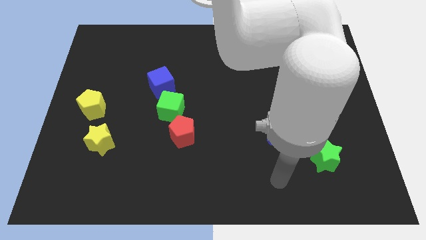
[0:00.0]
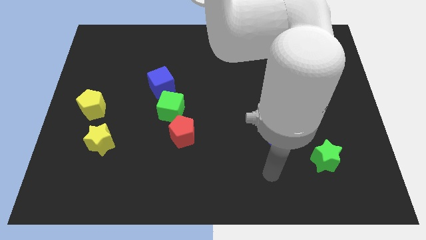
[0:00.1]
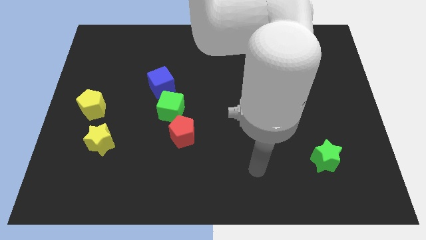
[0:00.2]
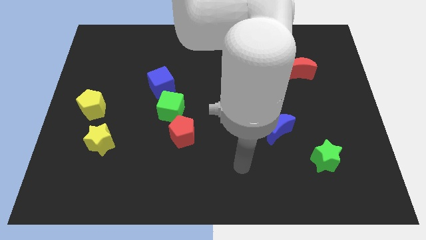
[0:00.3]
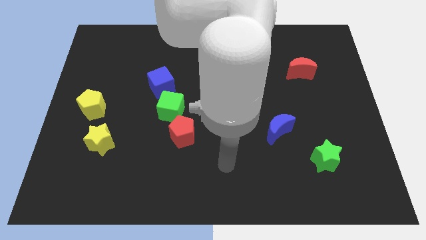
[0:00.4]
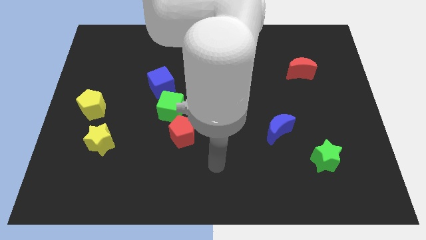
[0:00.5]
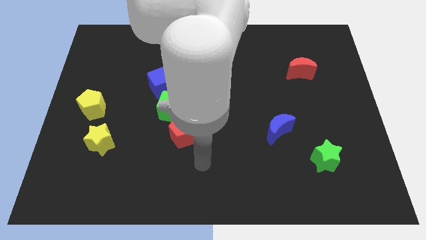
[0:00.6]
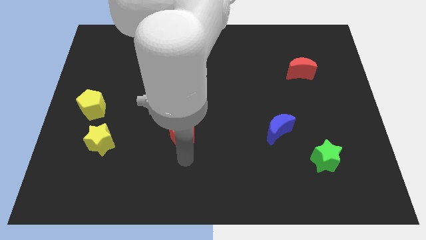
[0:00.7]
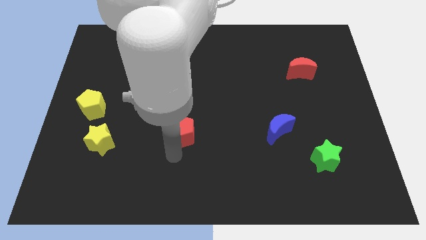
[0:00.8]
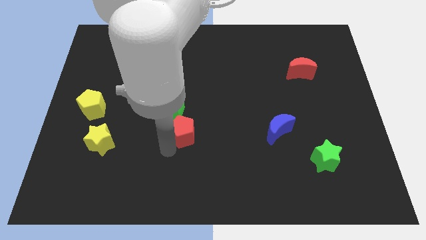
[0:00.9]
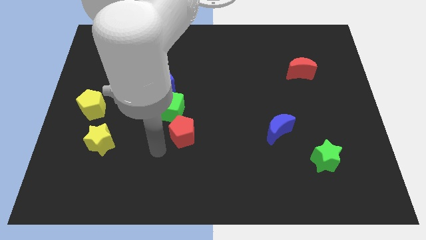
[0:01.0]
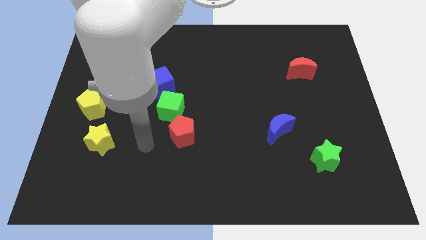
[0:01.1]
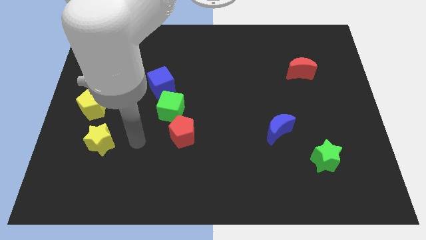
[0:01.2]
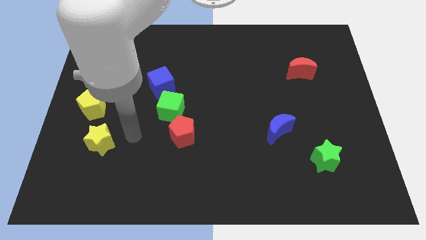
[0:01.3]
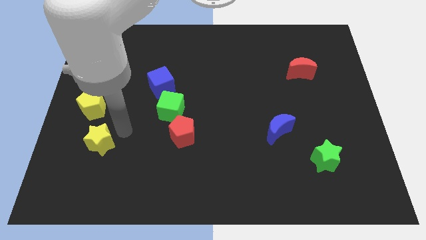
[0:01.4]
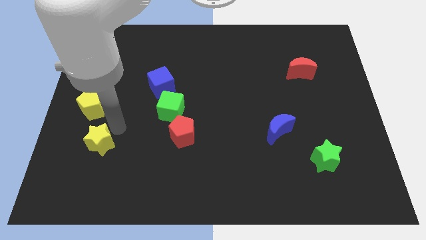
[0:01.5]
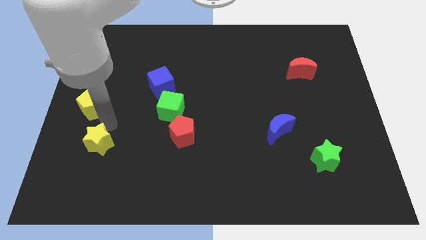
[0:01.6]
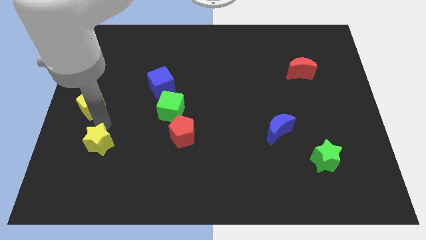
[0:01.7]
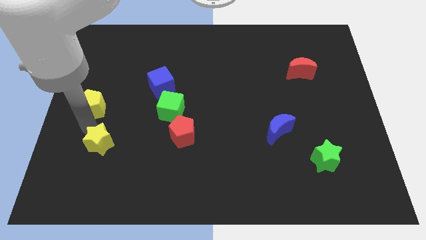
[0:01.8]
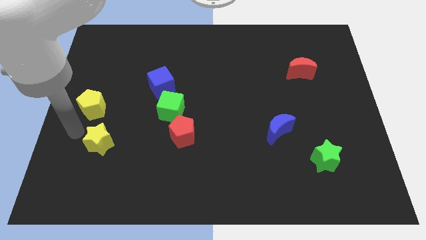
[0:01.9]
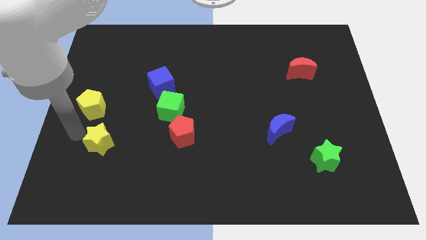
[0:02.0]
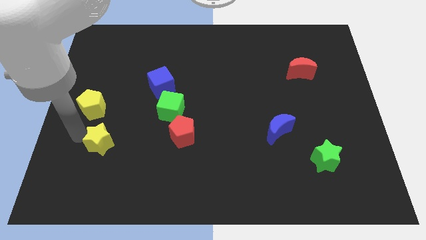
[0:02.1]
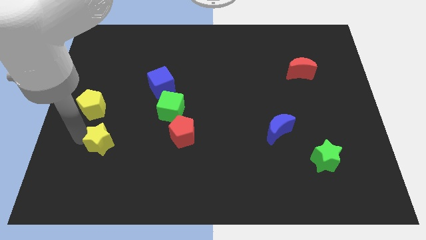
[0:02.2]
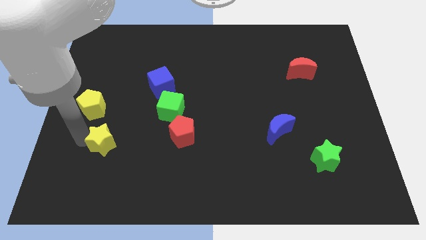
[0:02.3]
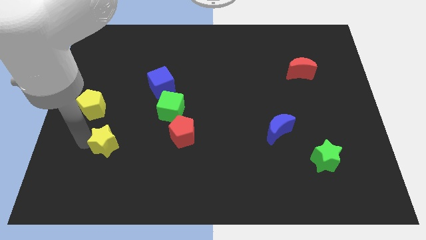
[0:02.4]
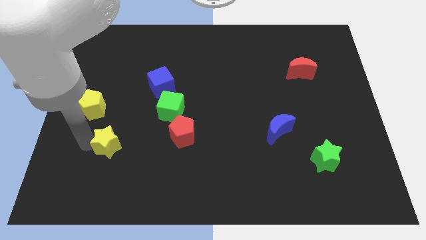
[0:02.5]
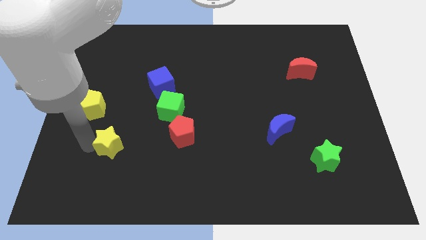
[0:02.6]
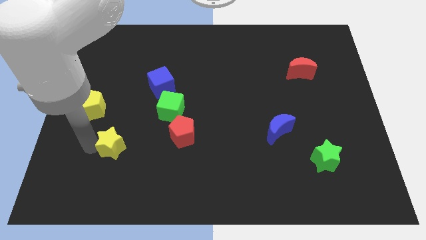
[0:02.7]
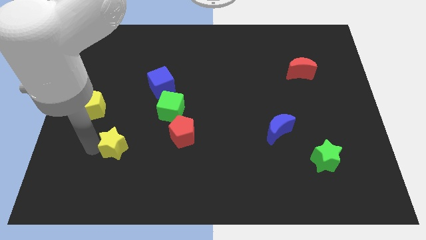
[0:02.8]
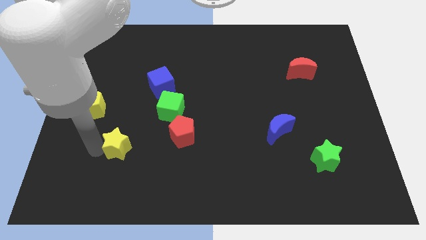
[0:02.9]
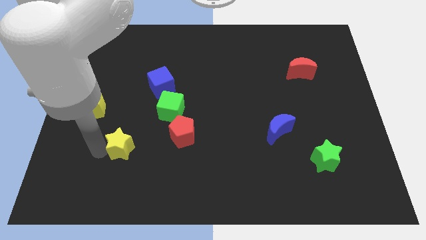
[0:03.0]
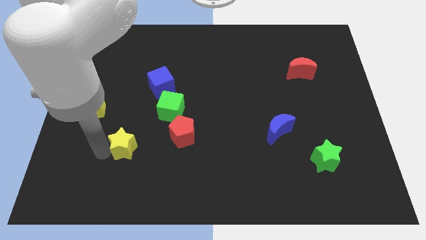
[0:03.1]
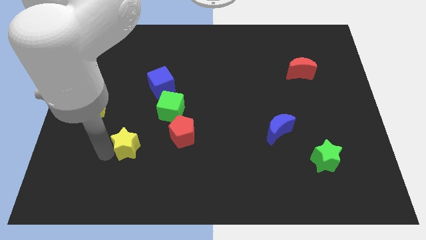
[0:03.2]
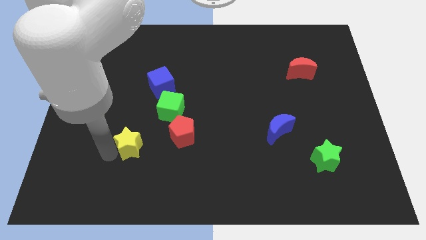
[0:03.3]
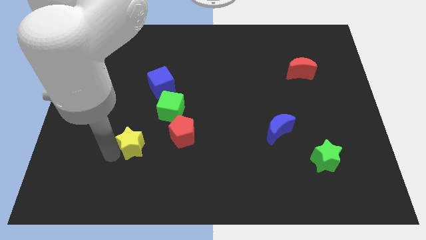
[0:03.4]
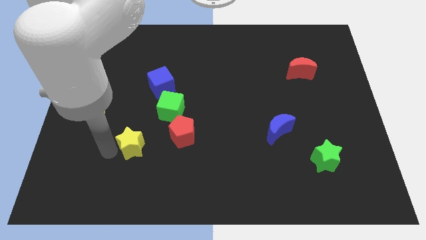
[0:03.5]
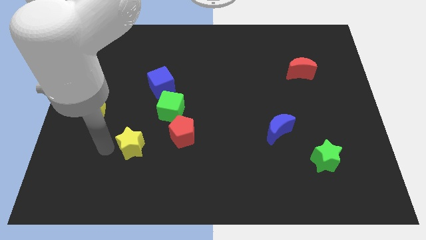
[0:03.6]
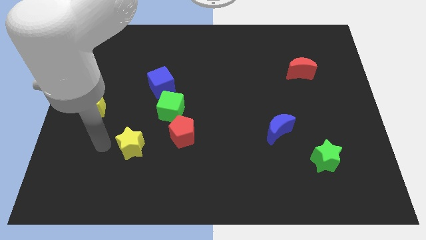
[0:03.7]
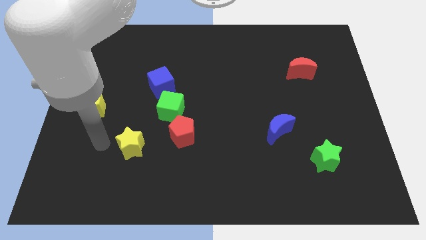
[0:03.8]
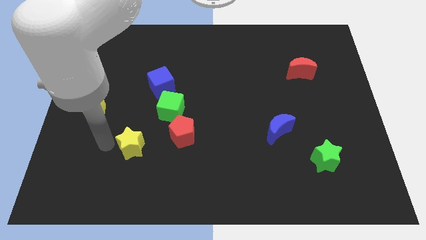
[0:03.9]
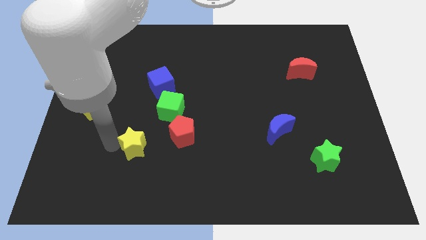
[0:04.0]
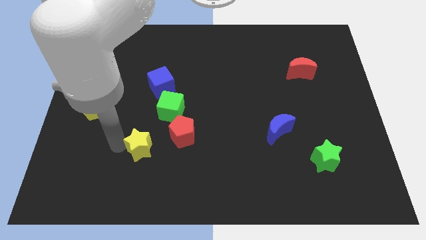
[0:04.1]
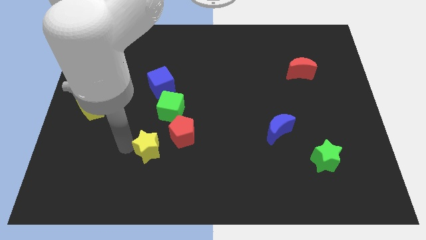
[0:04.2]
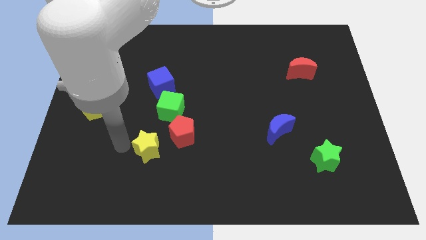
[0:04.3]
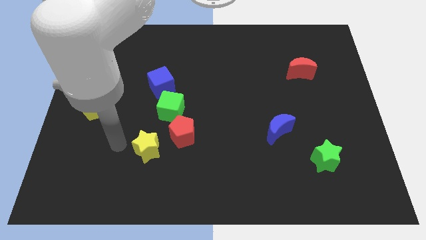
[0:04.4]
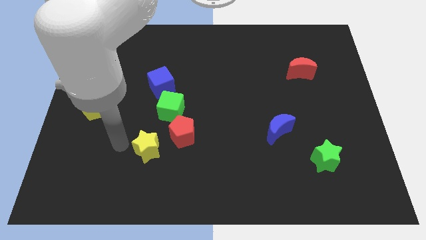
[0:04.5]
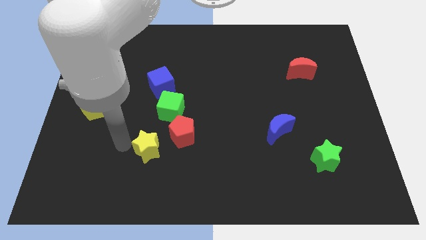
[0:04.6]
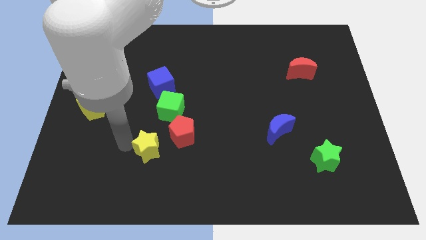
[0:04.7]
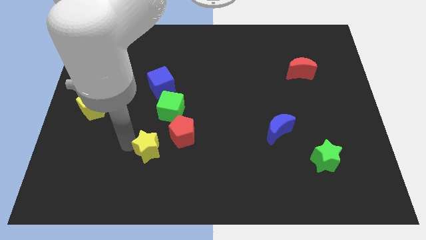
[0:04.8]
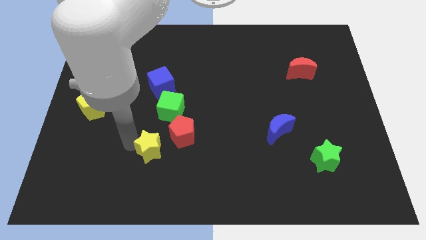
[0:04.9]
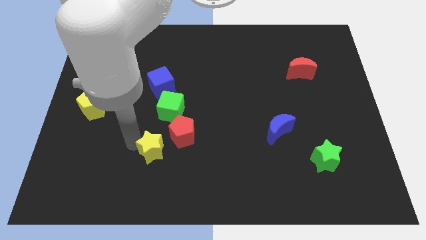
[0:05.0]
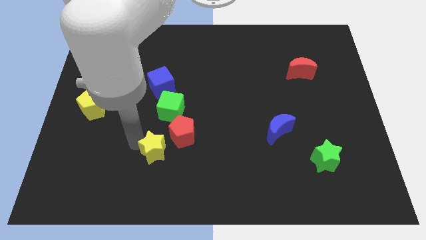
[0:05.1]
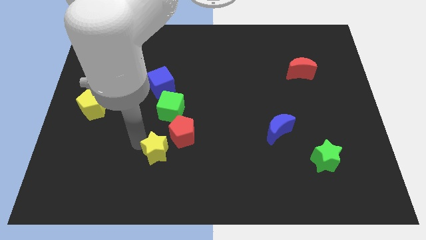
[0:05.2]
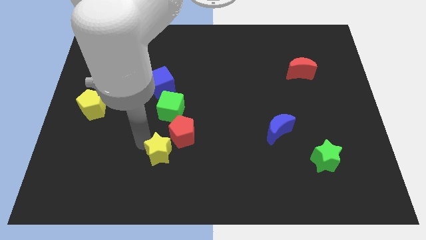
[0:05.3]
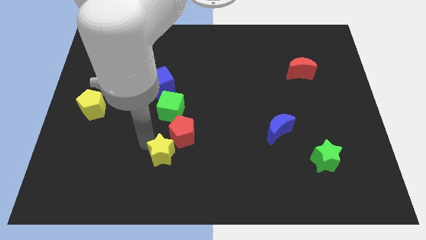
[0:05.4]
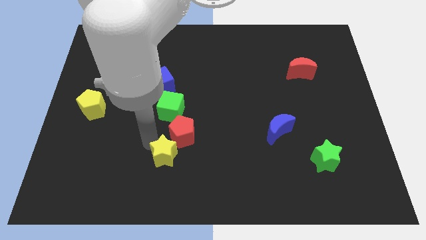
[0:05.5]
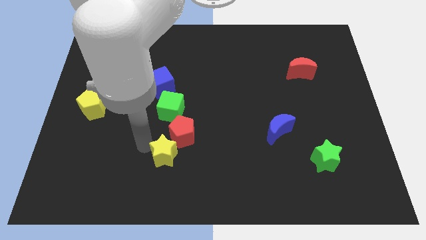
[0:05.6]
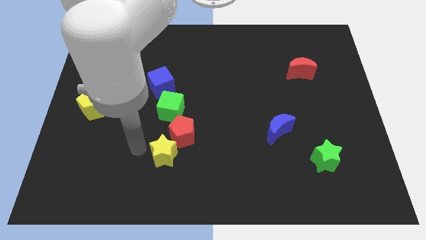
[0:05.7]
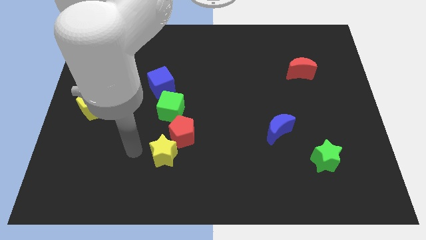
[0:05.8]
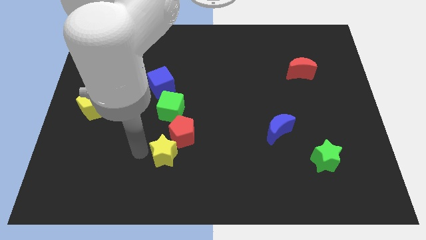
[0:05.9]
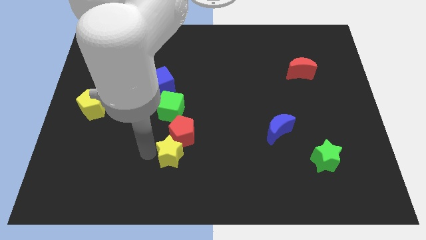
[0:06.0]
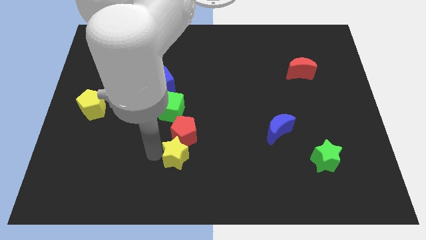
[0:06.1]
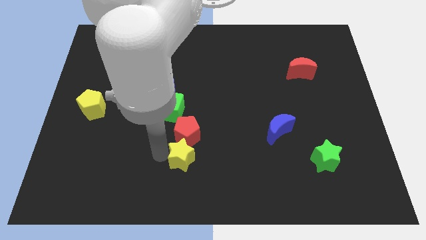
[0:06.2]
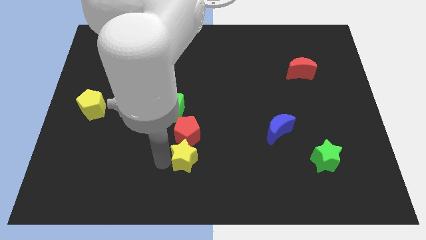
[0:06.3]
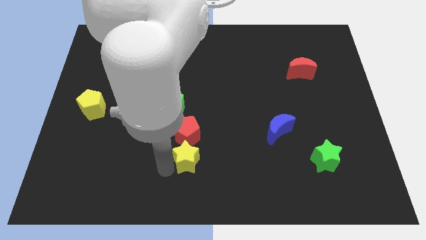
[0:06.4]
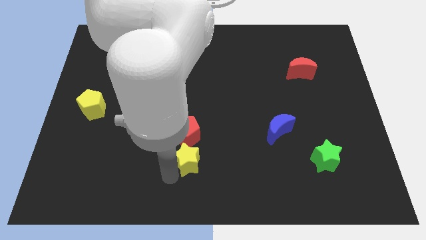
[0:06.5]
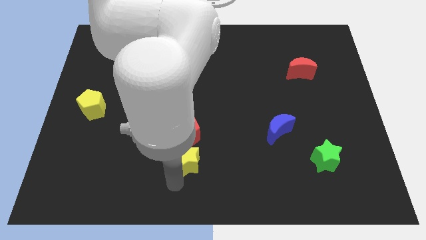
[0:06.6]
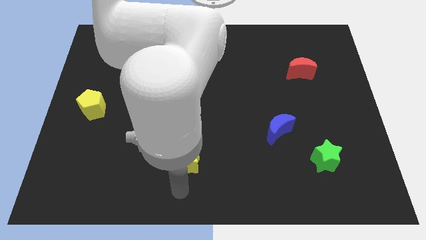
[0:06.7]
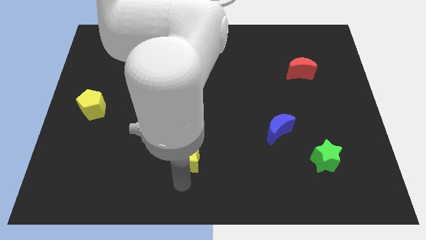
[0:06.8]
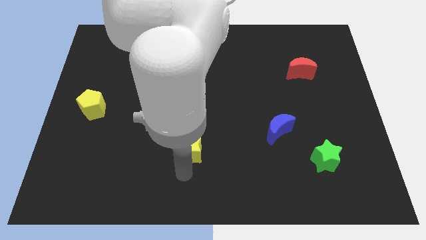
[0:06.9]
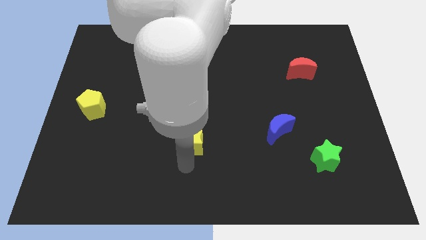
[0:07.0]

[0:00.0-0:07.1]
slide the yellow star to the bottom right of the green cube
